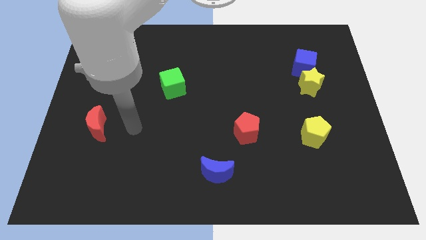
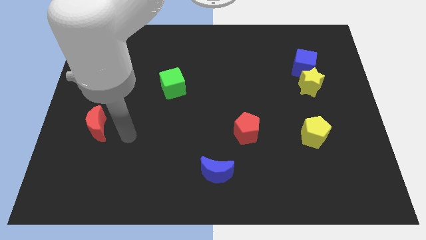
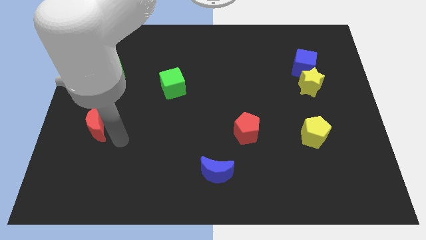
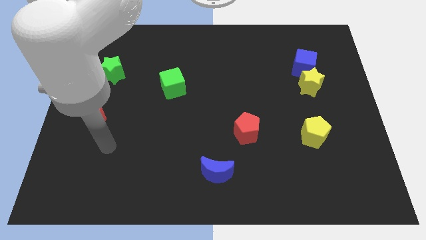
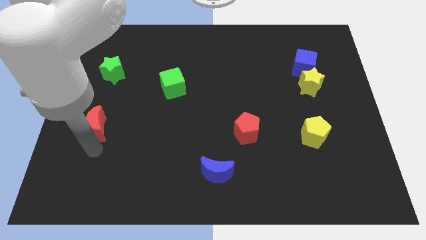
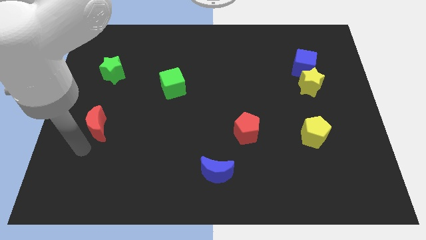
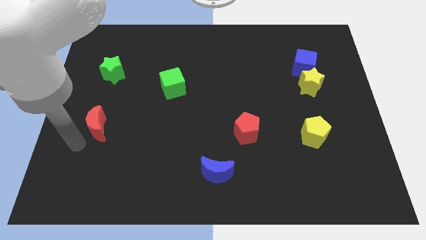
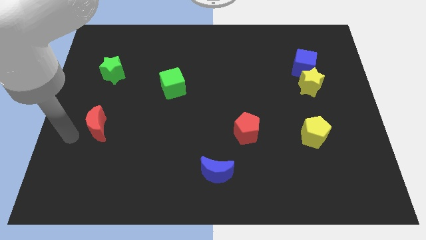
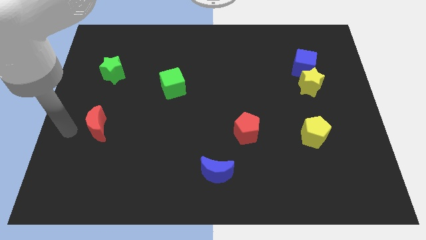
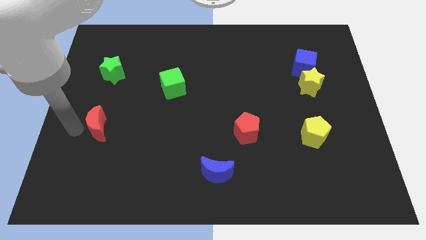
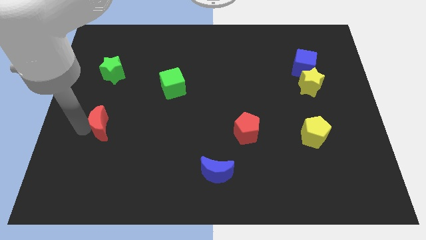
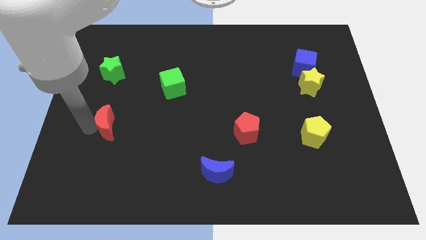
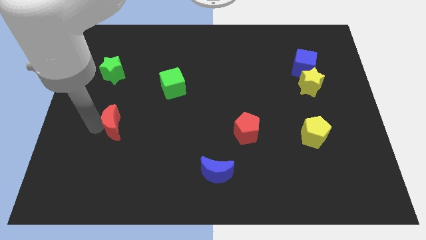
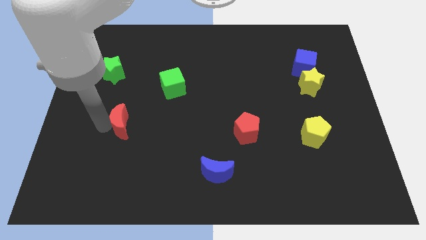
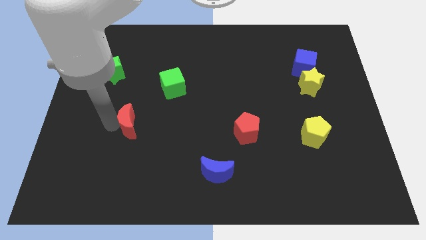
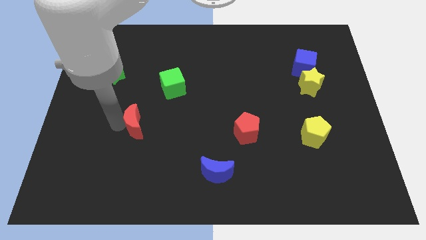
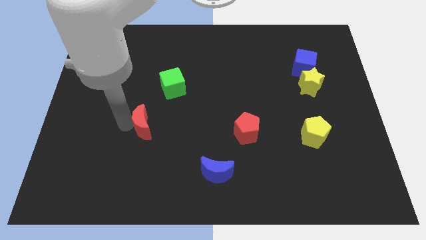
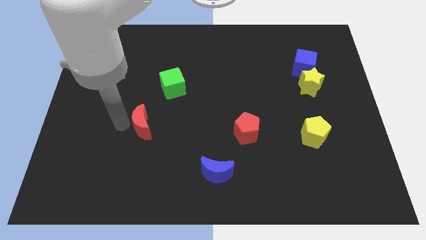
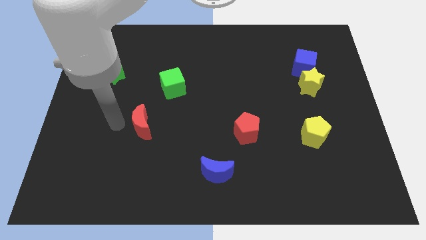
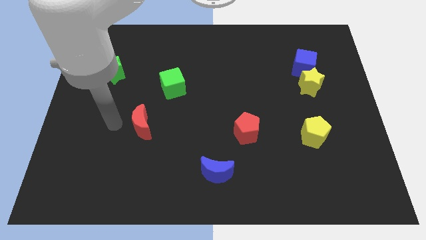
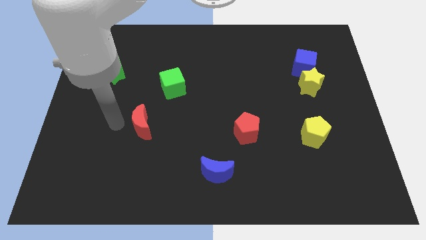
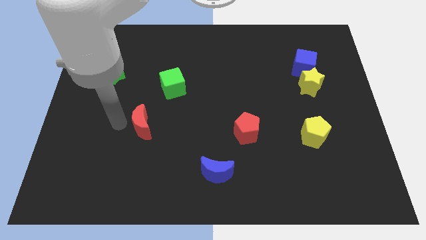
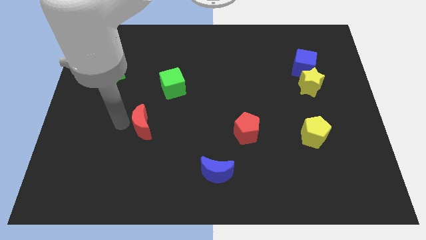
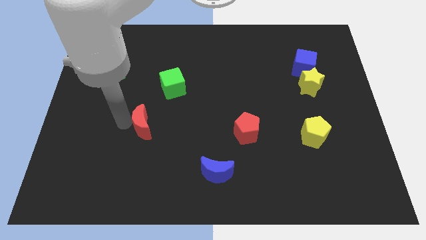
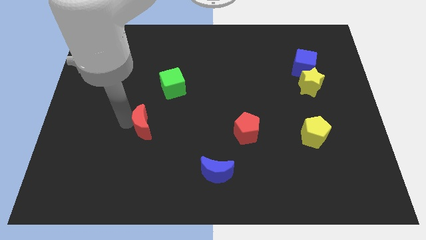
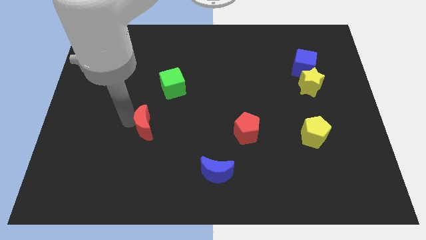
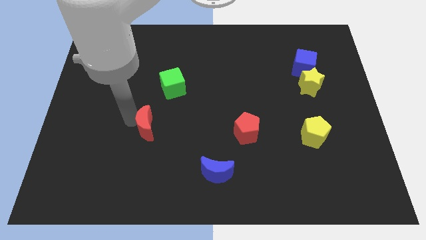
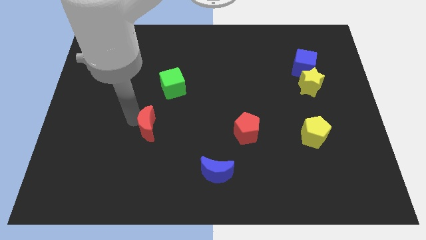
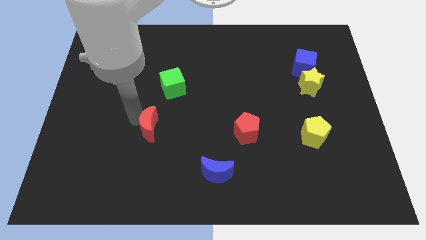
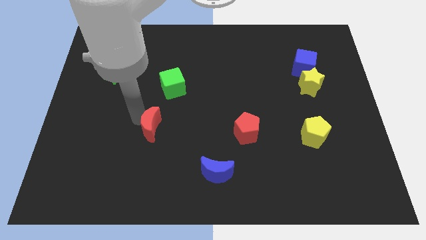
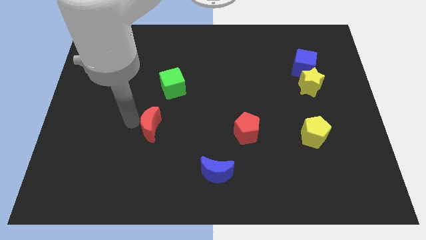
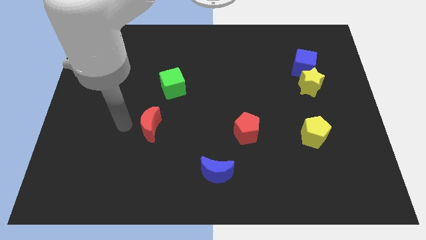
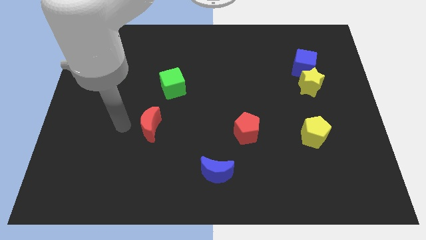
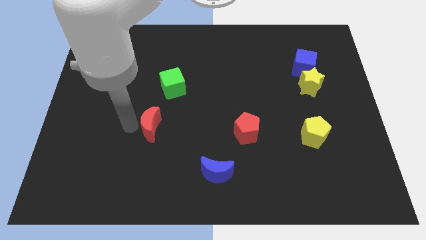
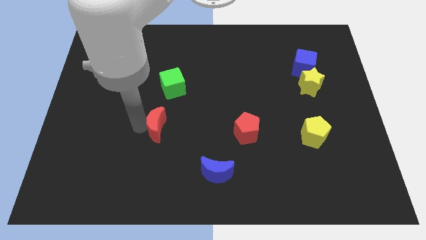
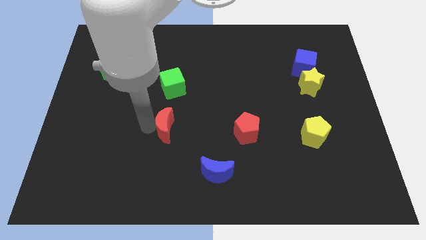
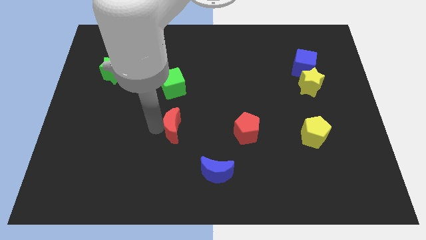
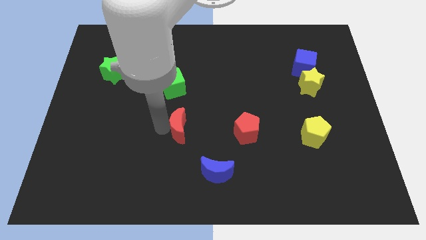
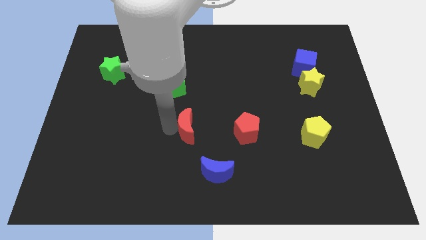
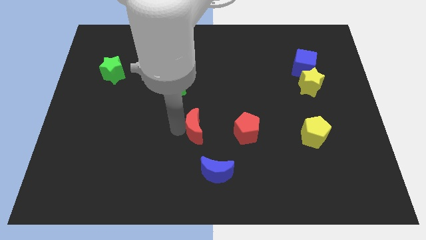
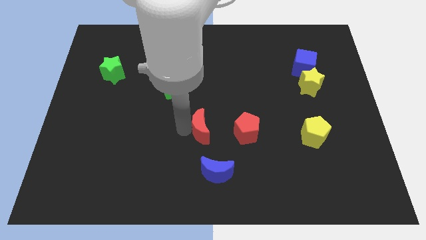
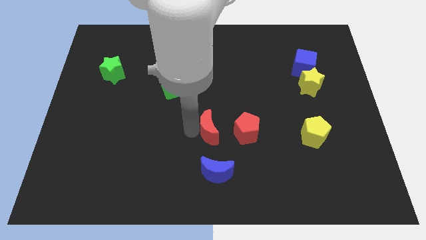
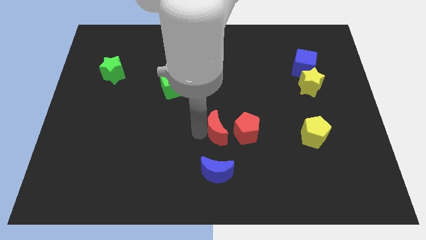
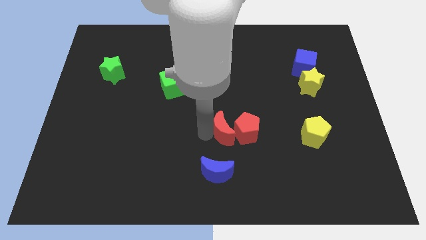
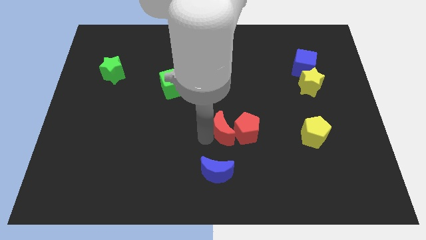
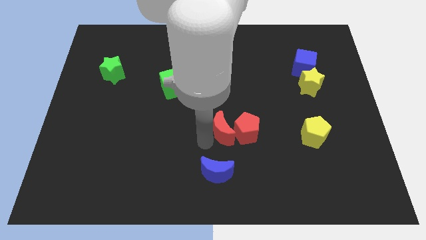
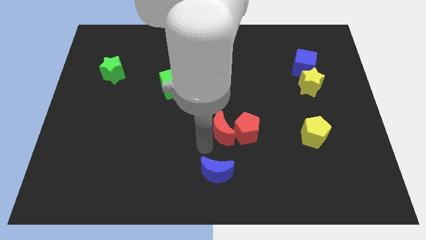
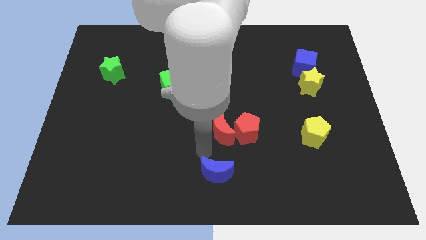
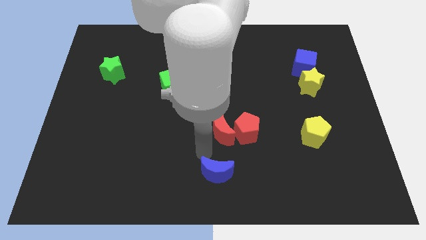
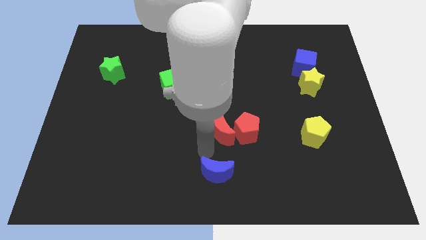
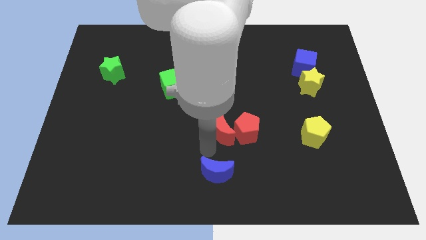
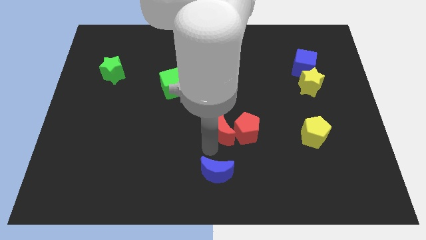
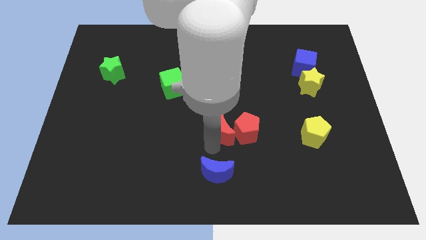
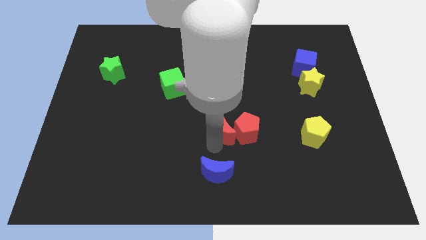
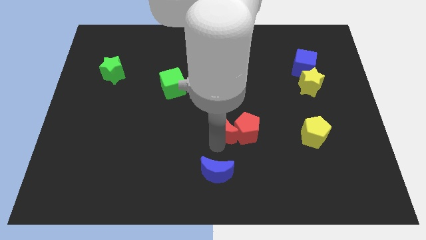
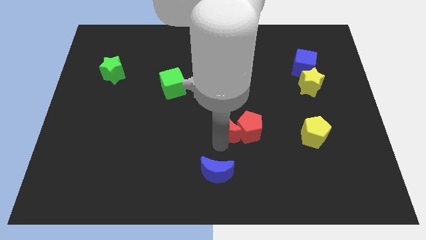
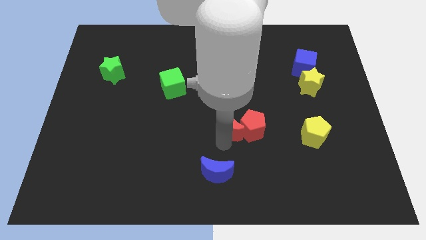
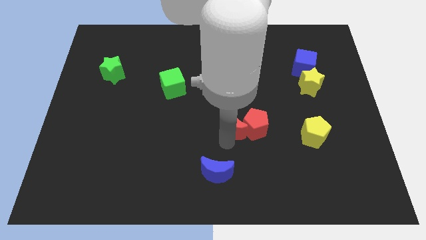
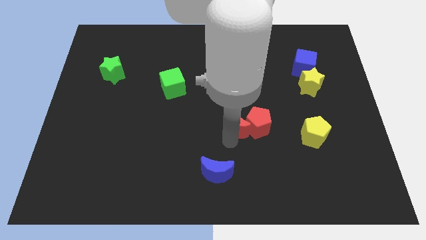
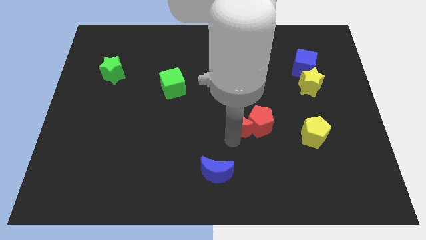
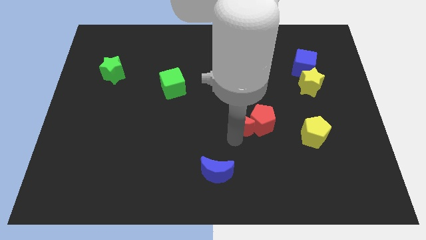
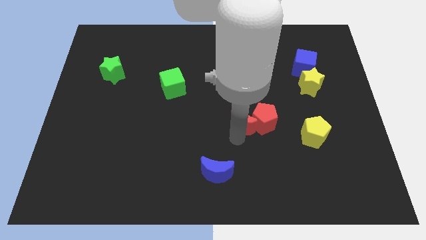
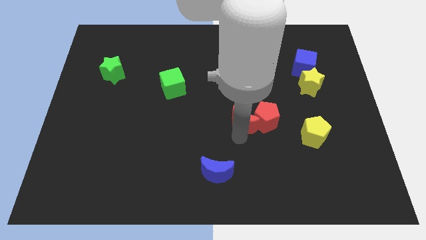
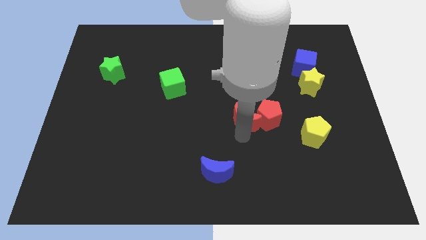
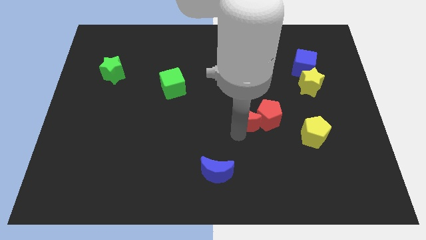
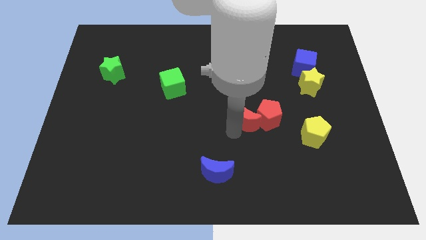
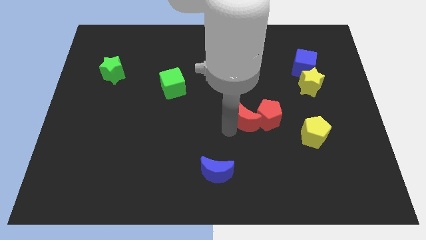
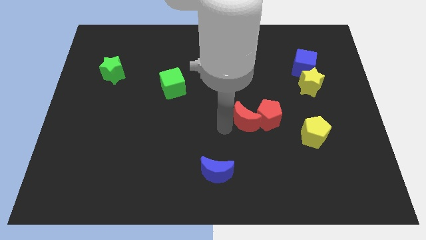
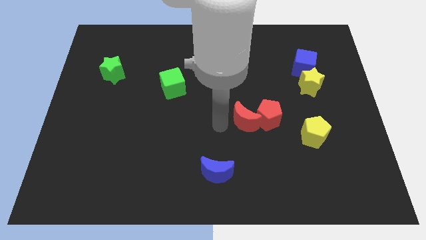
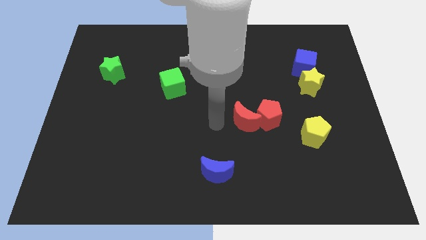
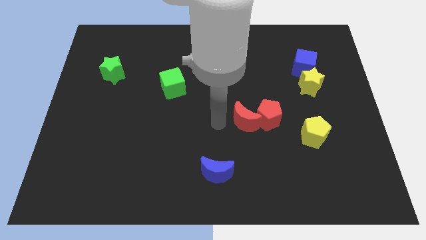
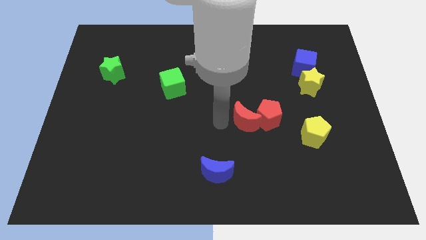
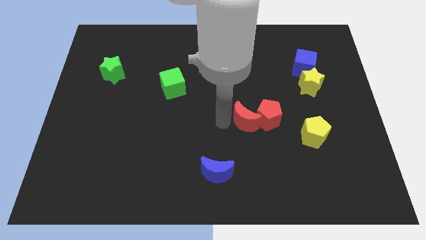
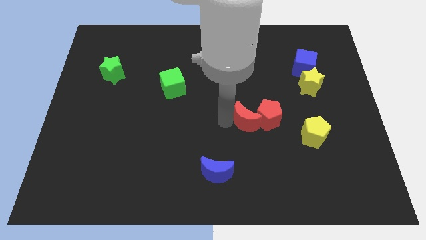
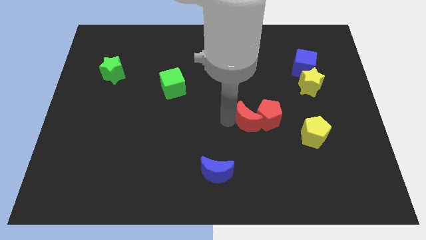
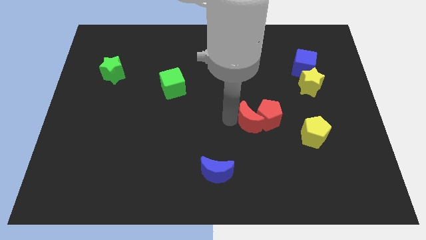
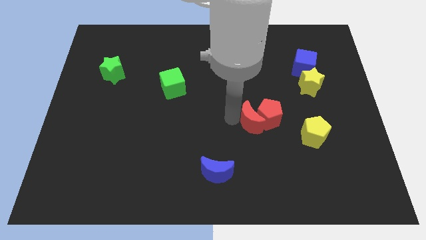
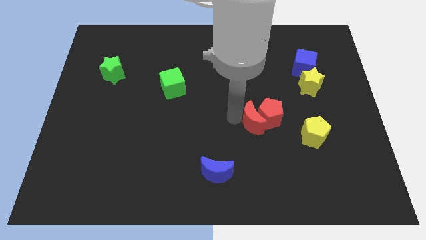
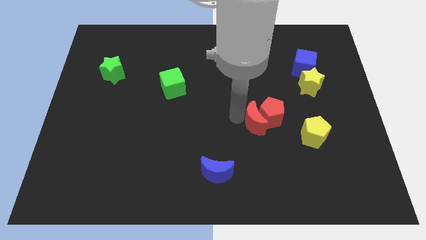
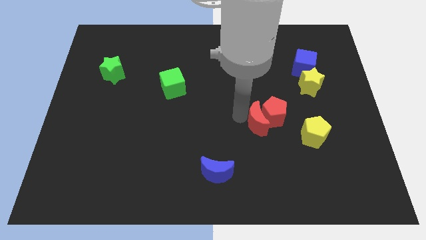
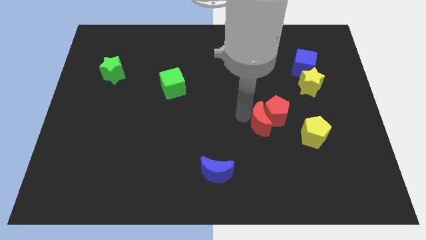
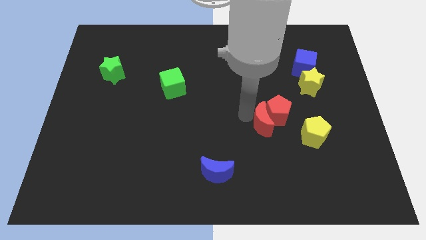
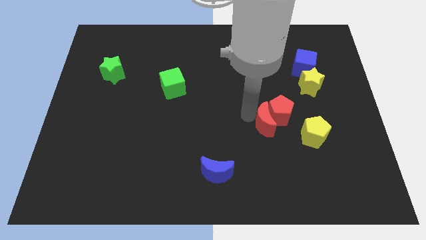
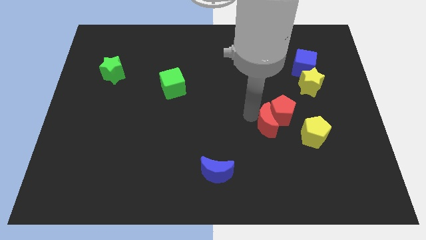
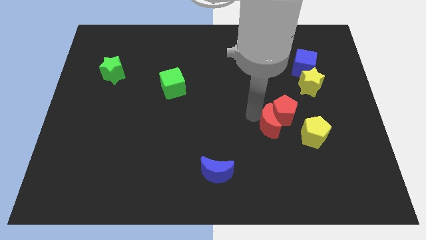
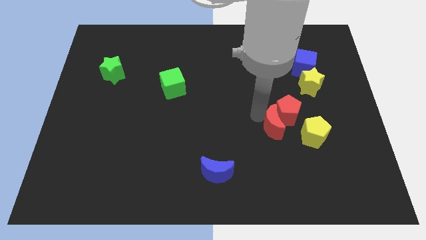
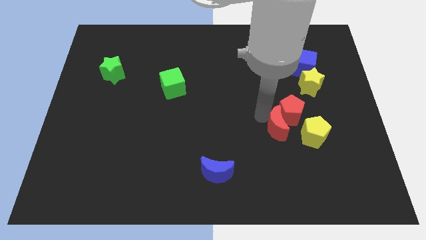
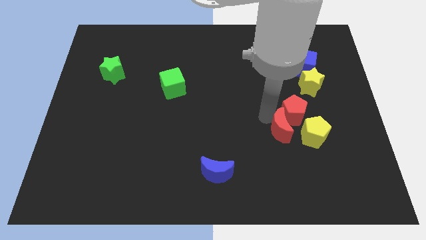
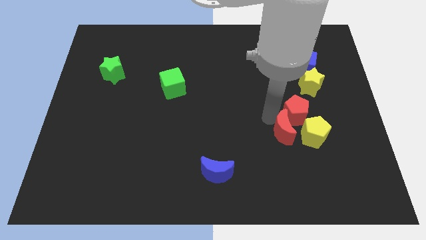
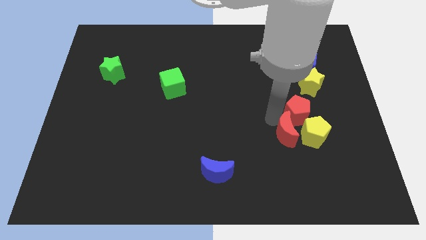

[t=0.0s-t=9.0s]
move the red moon close to the yellow pentagon
